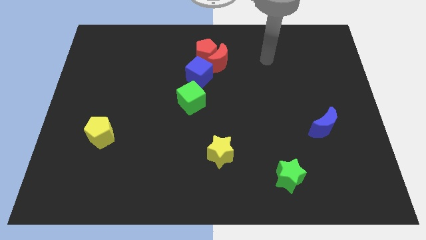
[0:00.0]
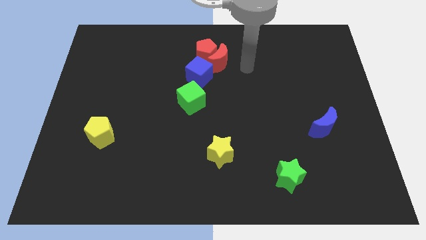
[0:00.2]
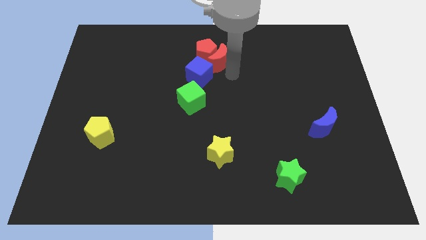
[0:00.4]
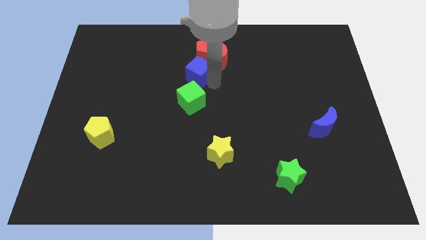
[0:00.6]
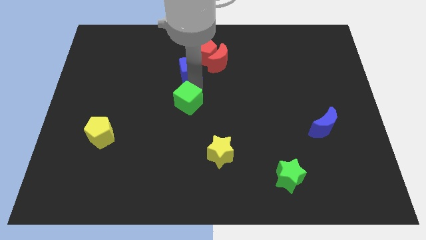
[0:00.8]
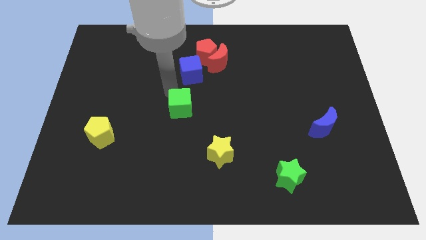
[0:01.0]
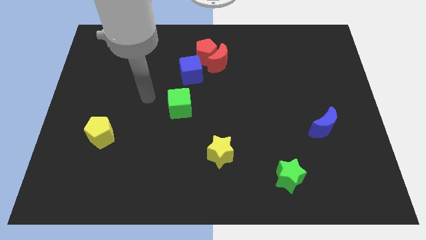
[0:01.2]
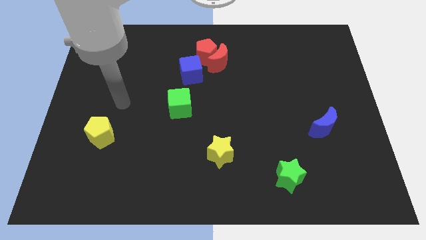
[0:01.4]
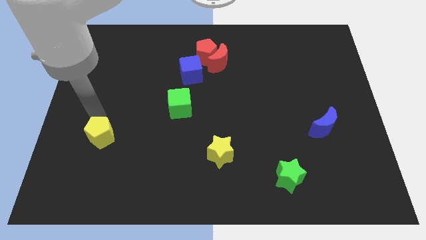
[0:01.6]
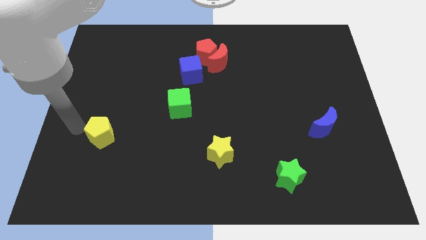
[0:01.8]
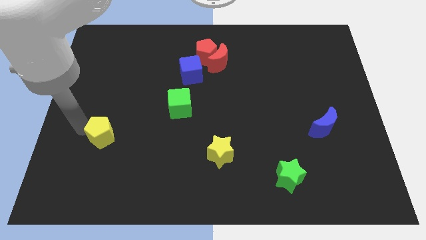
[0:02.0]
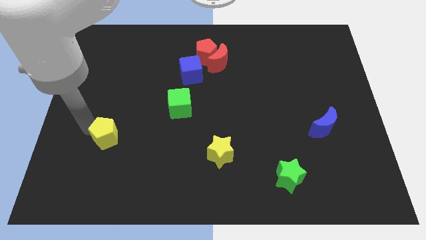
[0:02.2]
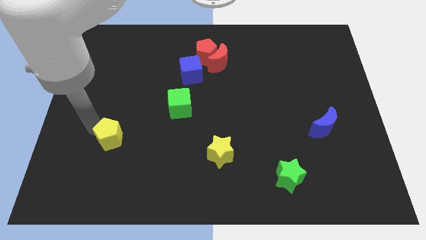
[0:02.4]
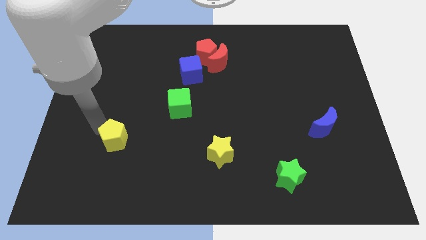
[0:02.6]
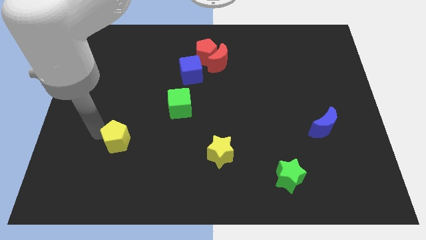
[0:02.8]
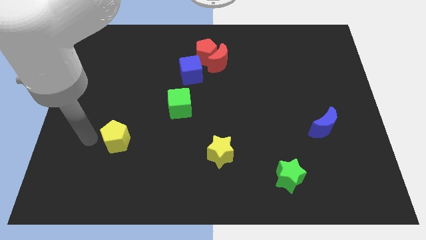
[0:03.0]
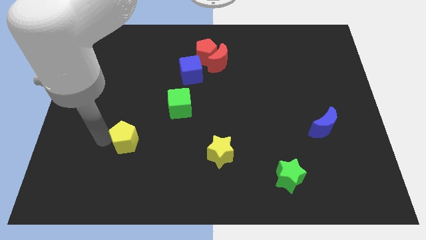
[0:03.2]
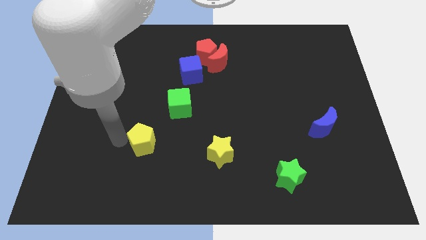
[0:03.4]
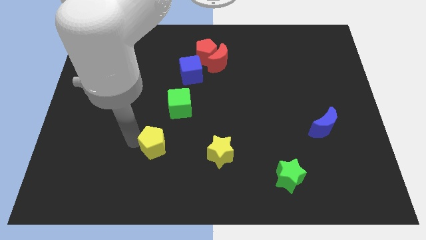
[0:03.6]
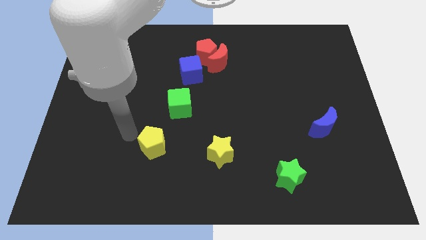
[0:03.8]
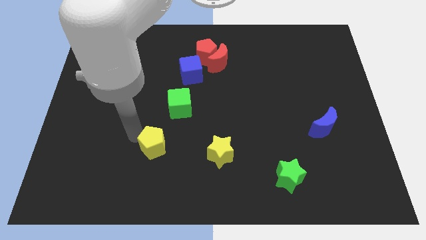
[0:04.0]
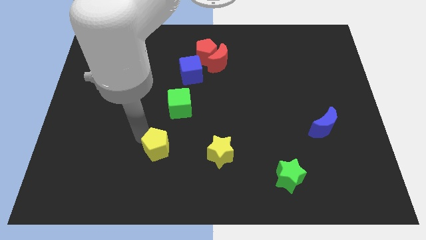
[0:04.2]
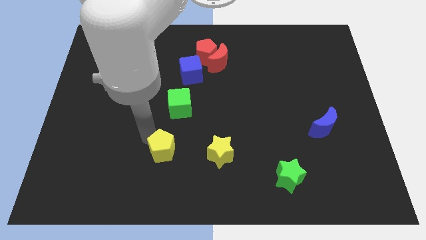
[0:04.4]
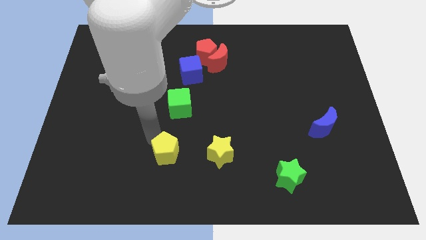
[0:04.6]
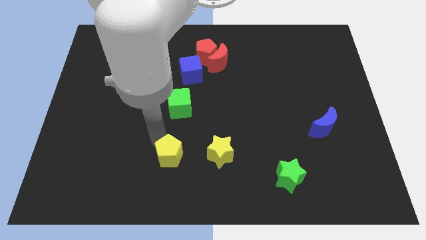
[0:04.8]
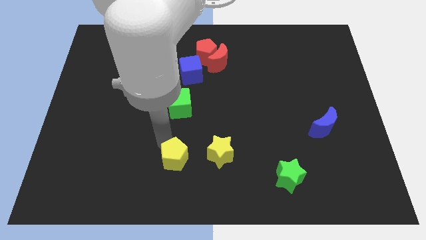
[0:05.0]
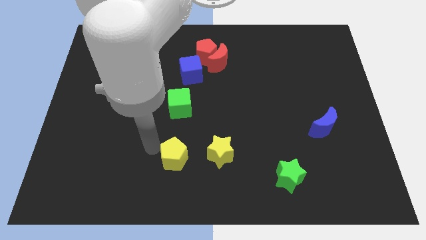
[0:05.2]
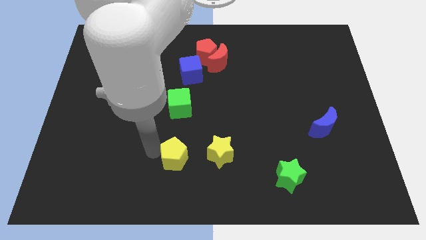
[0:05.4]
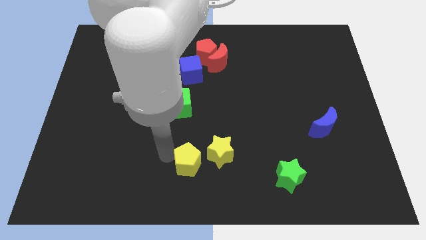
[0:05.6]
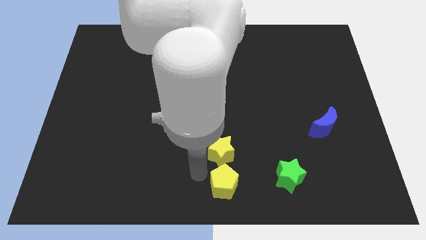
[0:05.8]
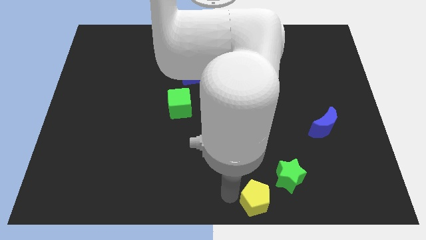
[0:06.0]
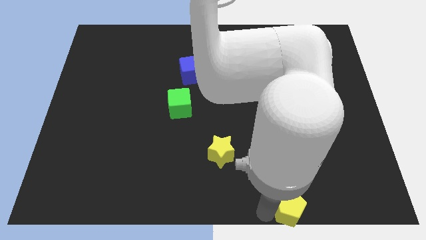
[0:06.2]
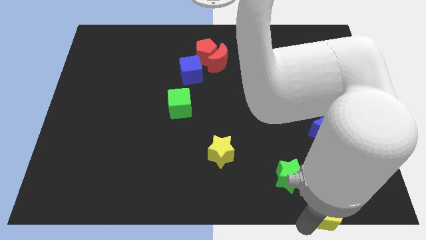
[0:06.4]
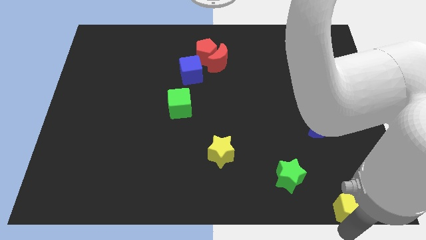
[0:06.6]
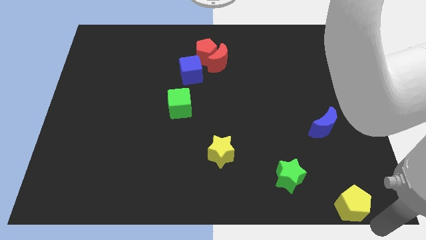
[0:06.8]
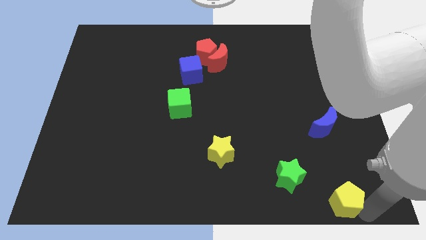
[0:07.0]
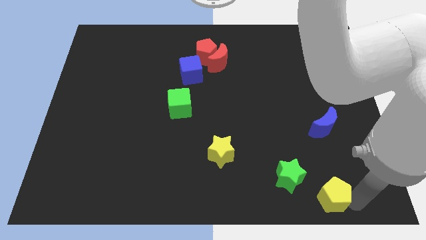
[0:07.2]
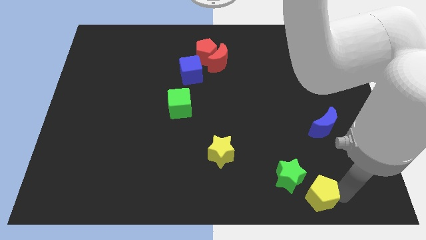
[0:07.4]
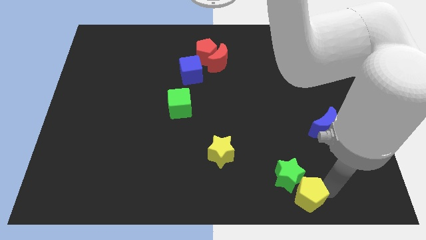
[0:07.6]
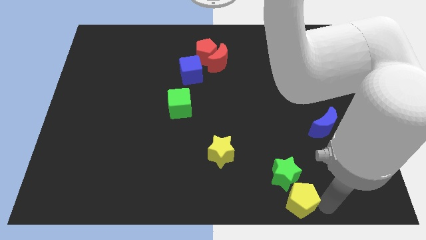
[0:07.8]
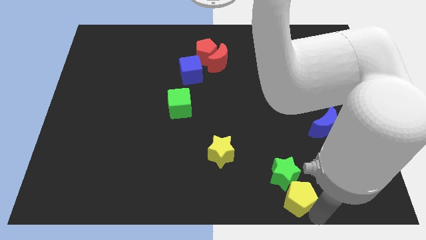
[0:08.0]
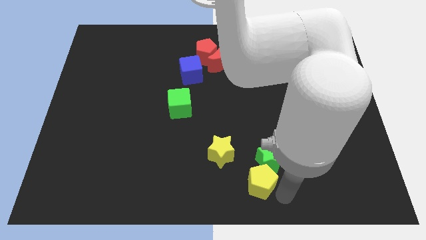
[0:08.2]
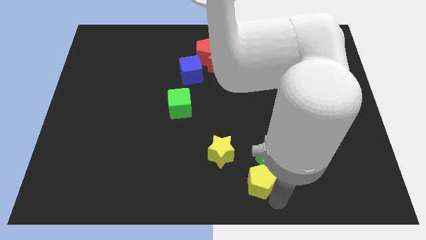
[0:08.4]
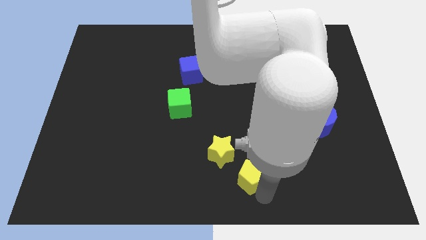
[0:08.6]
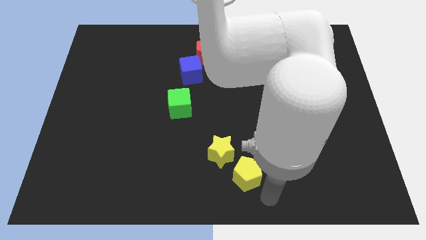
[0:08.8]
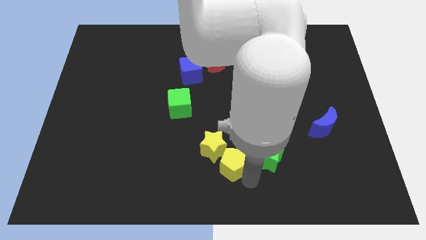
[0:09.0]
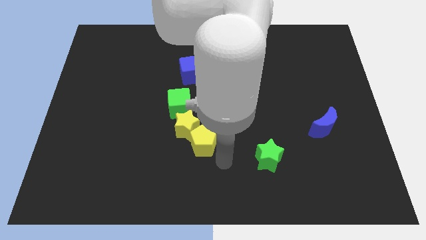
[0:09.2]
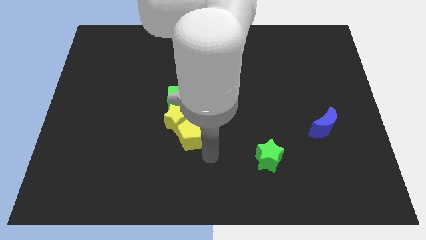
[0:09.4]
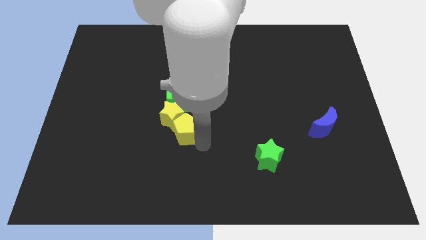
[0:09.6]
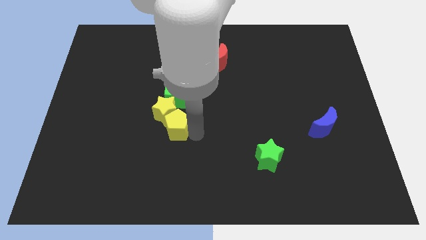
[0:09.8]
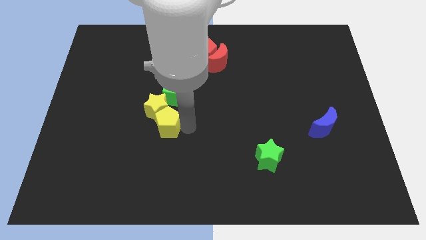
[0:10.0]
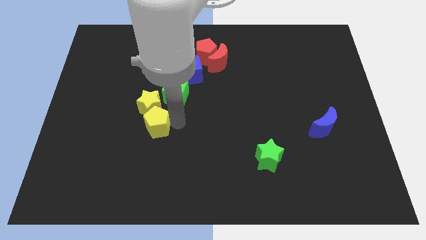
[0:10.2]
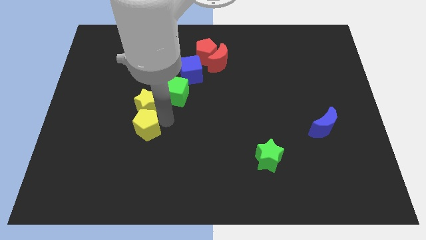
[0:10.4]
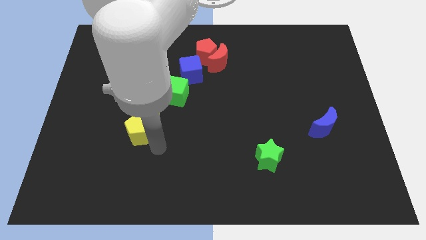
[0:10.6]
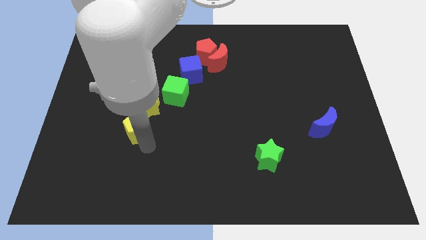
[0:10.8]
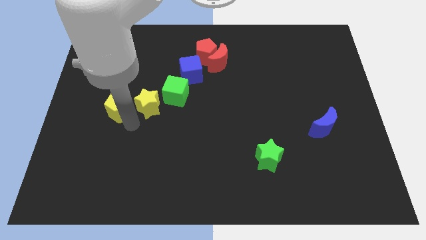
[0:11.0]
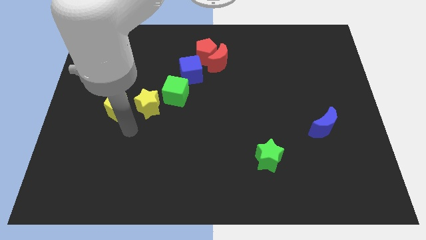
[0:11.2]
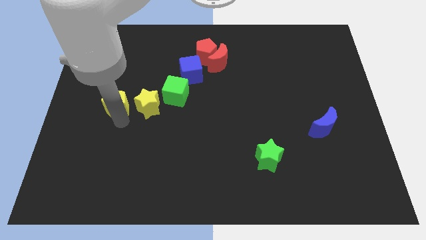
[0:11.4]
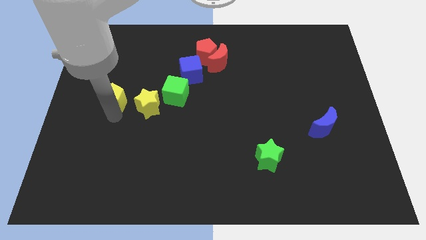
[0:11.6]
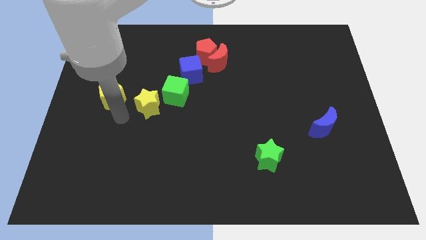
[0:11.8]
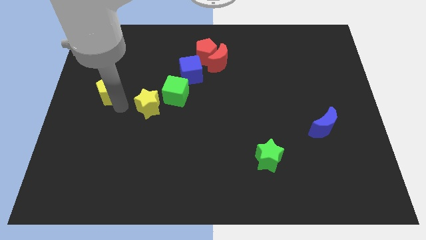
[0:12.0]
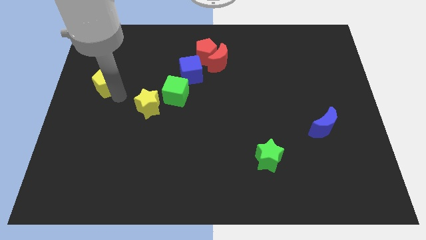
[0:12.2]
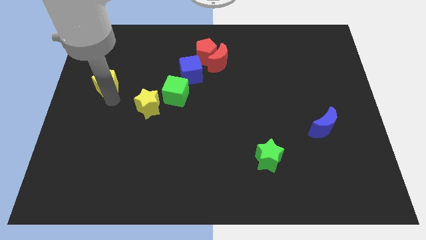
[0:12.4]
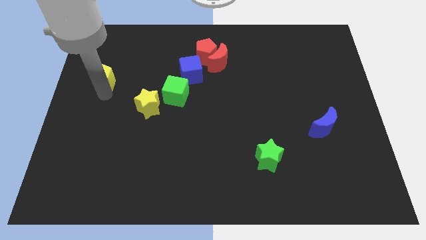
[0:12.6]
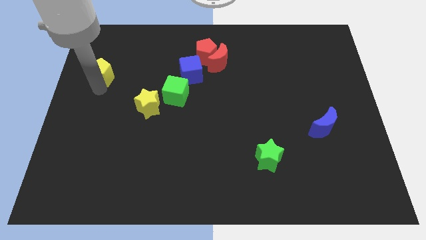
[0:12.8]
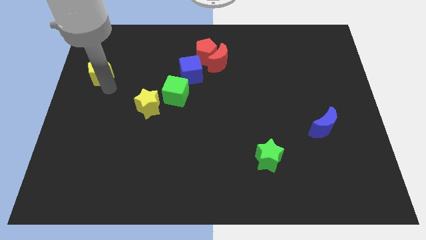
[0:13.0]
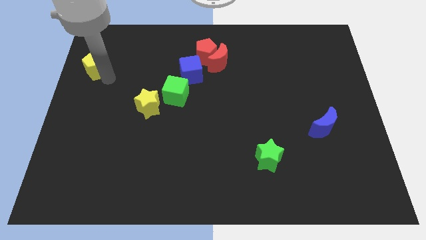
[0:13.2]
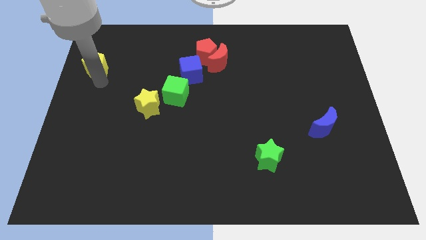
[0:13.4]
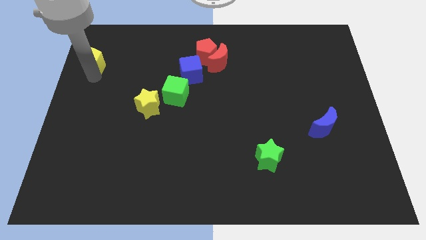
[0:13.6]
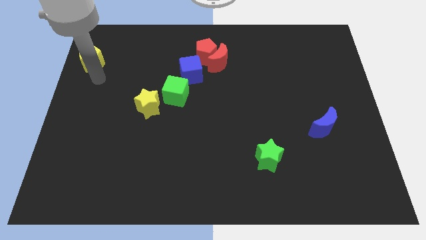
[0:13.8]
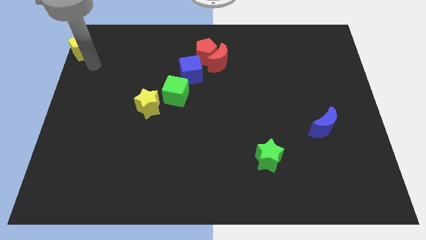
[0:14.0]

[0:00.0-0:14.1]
slide the yellow pentagon to the top left of the board
